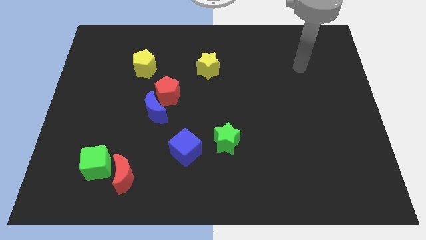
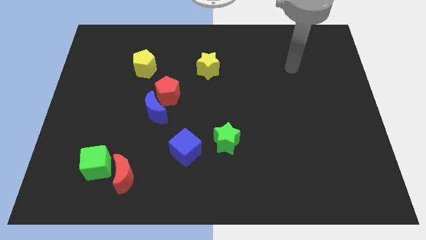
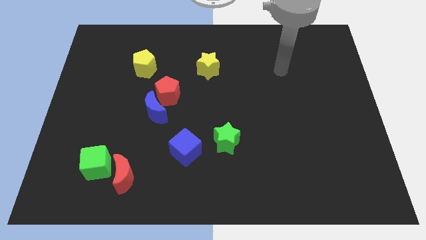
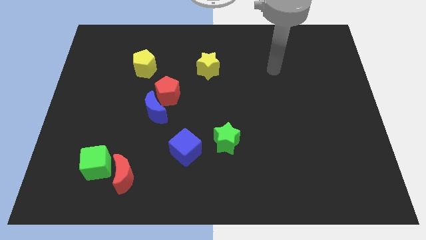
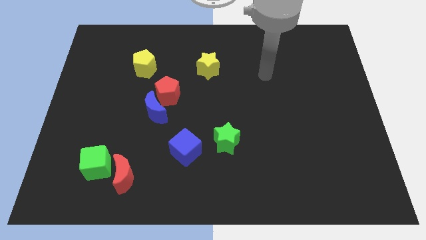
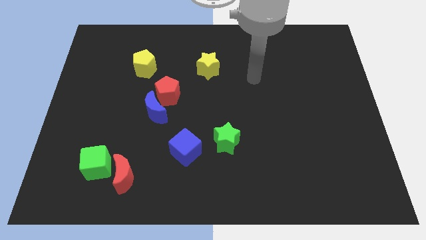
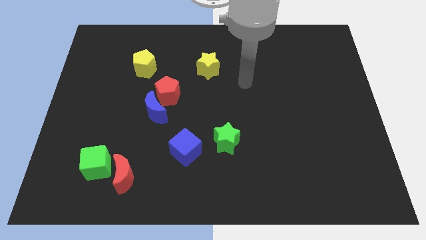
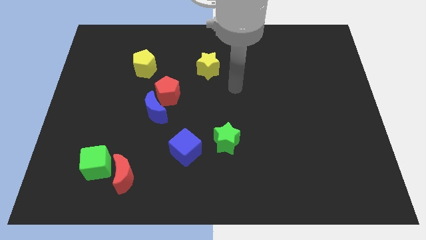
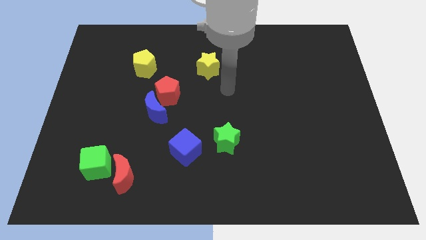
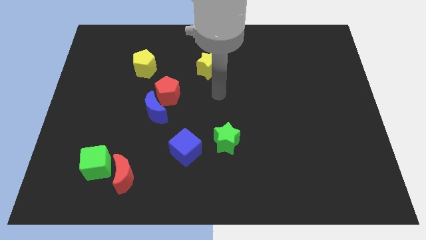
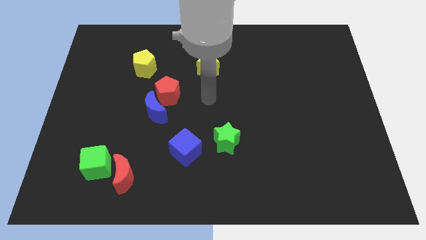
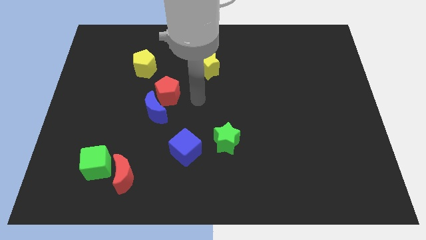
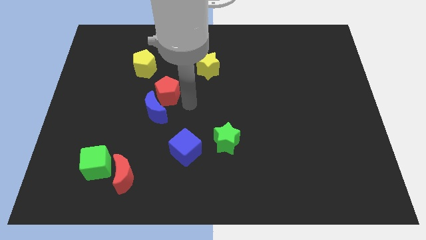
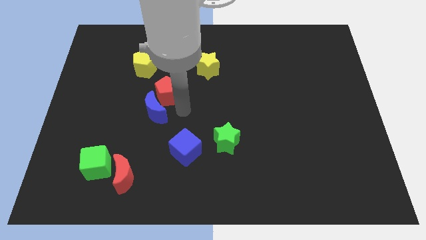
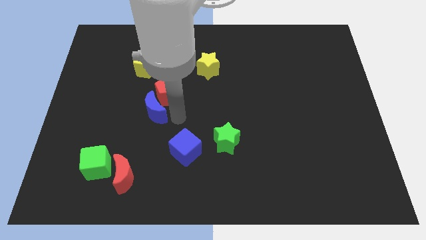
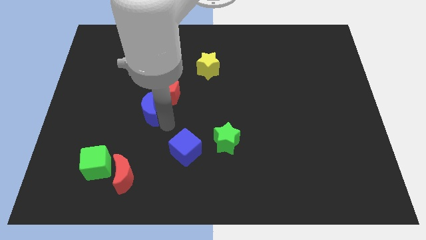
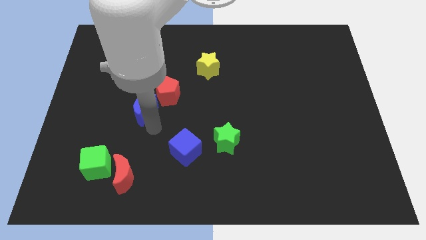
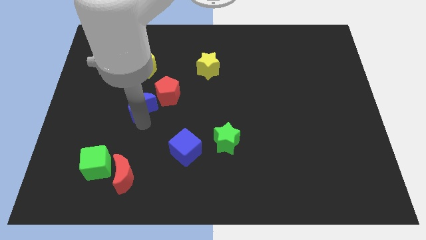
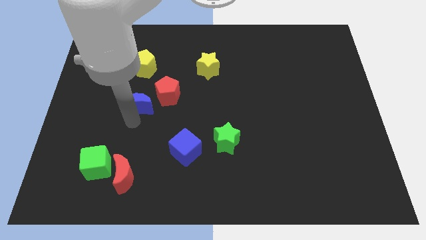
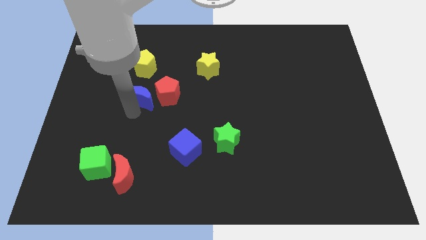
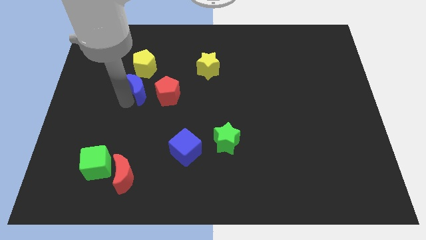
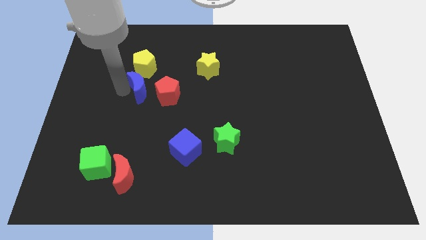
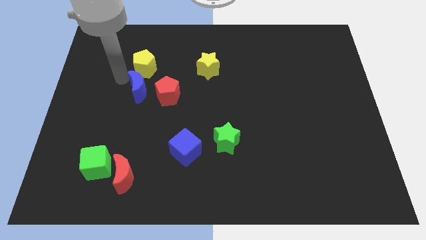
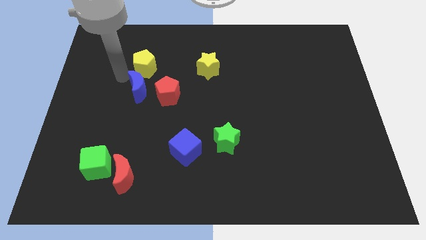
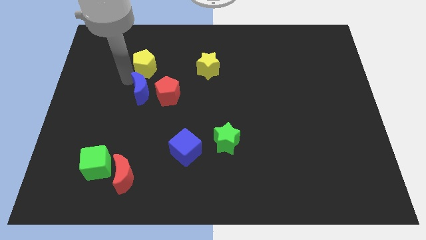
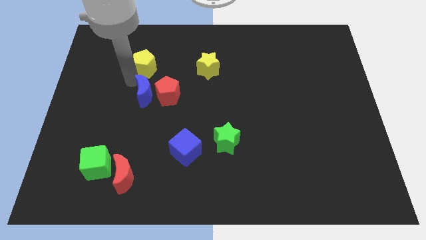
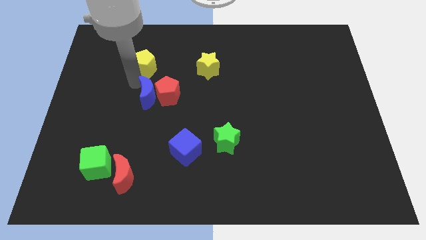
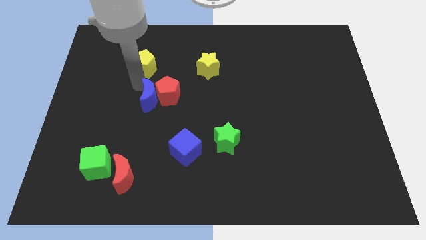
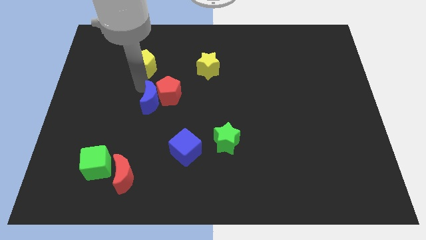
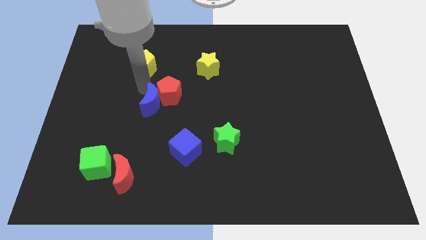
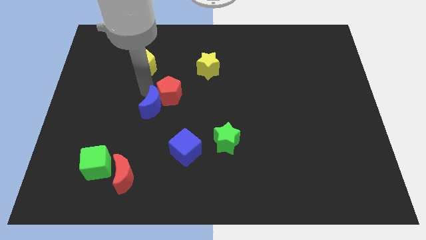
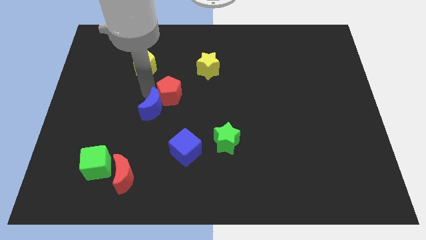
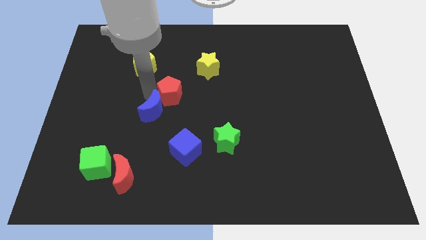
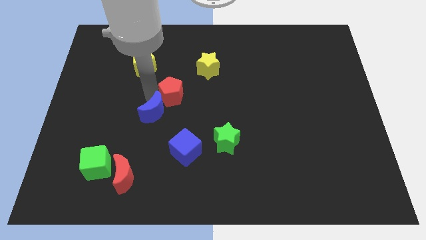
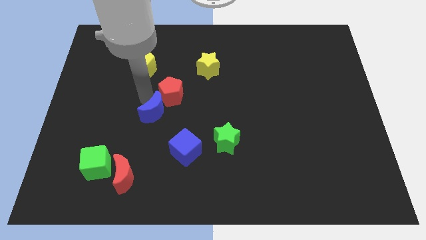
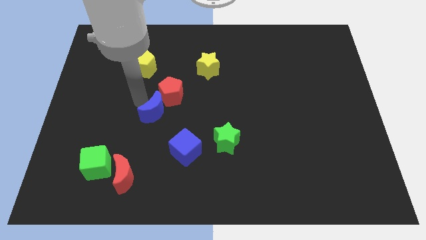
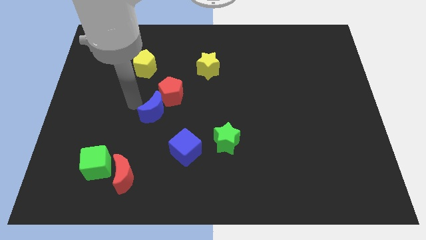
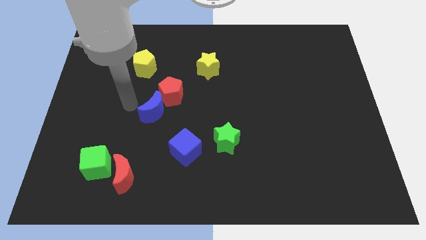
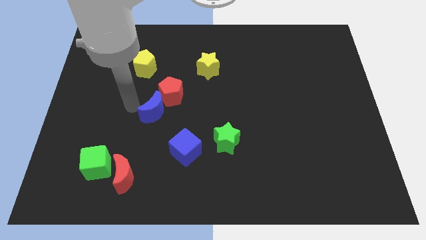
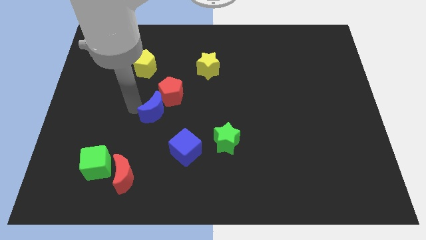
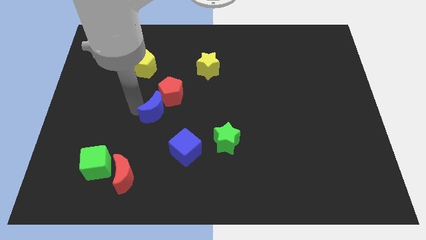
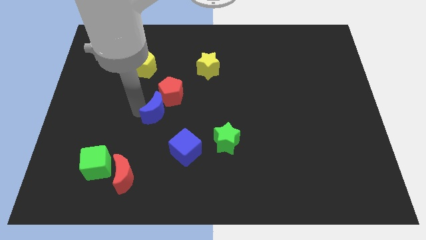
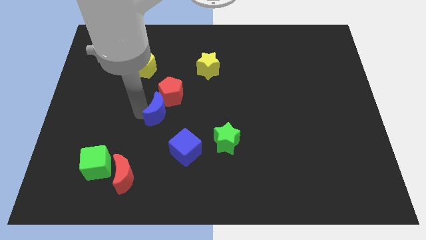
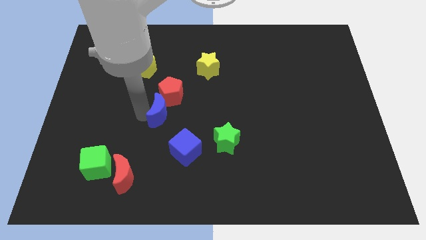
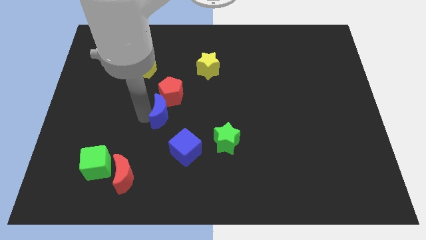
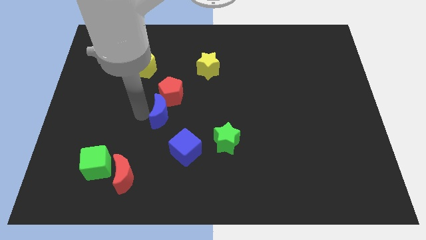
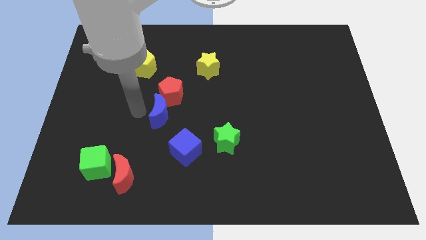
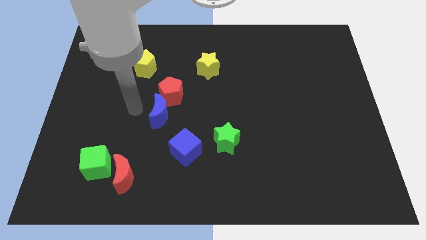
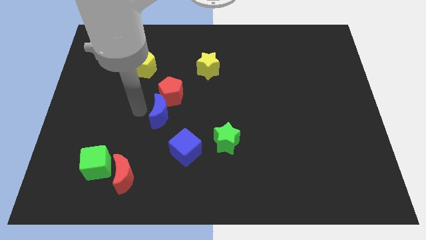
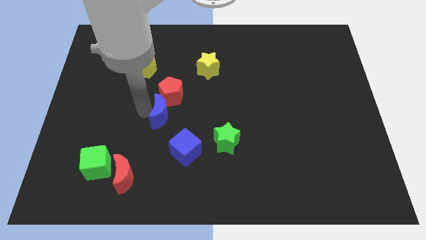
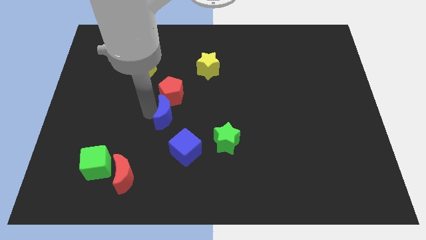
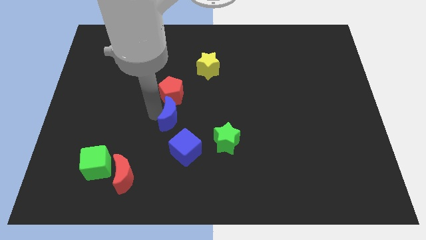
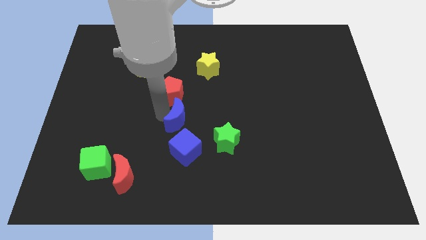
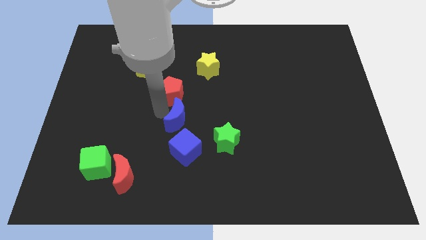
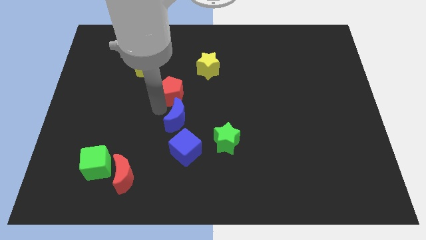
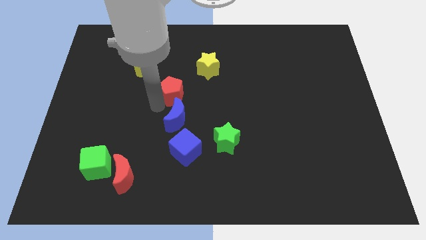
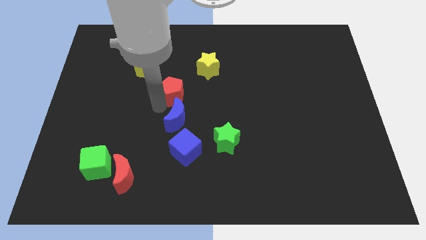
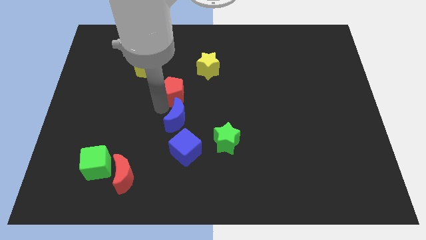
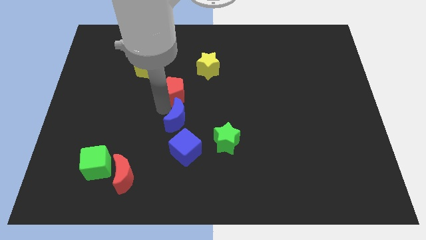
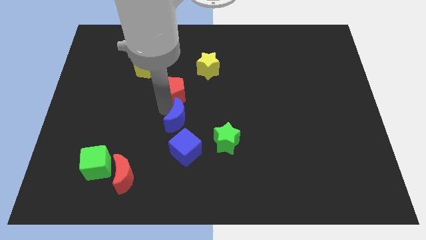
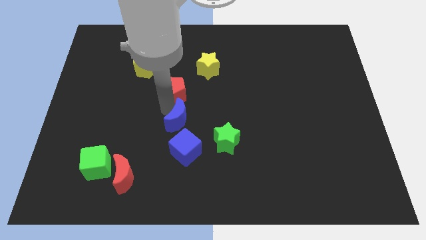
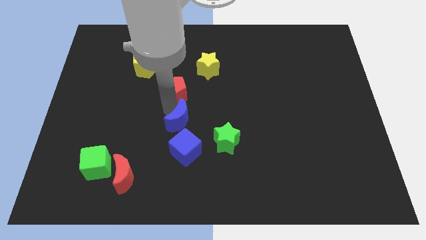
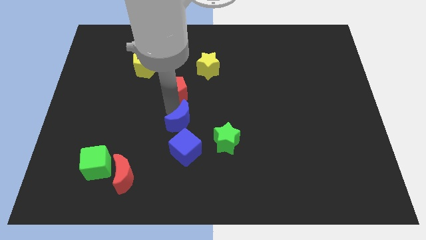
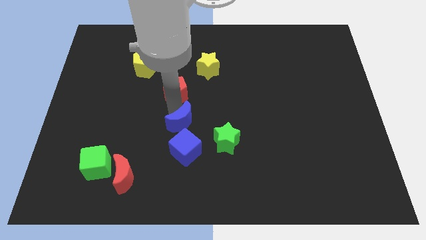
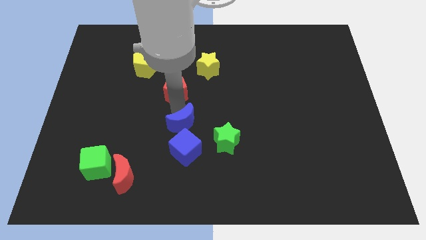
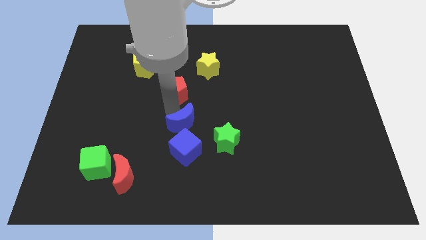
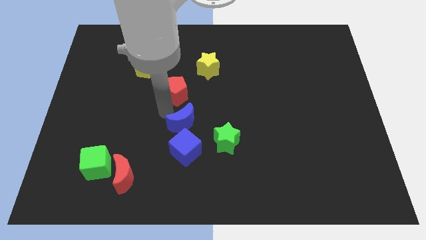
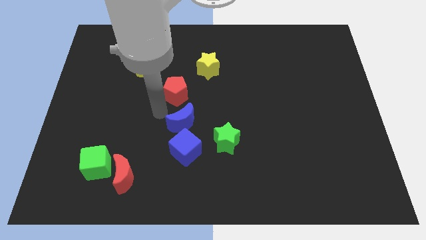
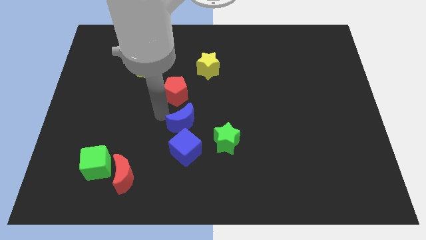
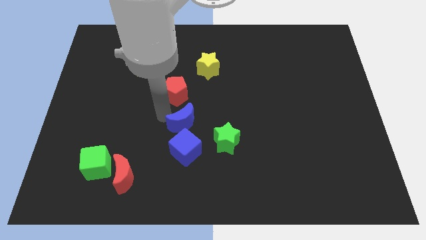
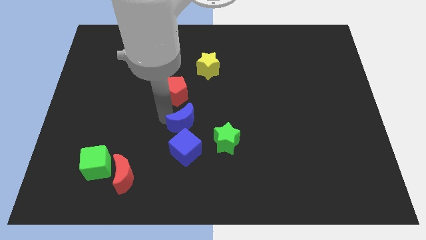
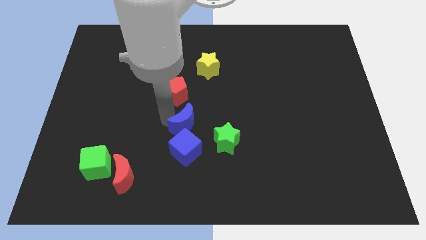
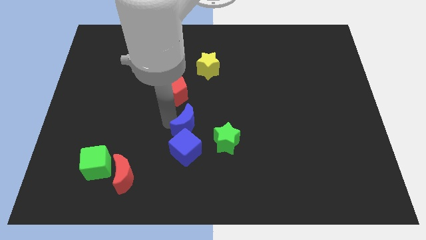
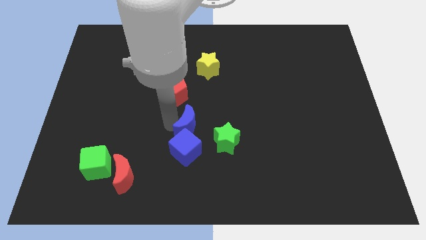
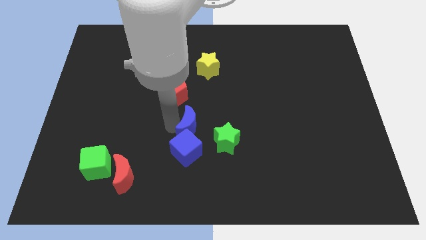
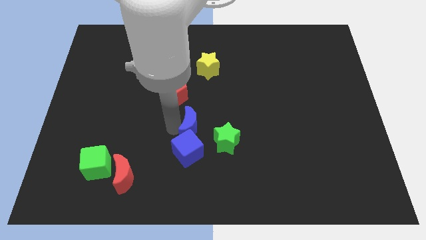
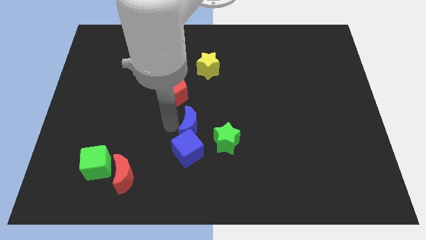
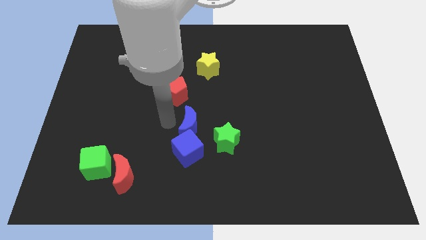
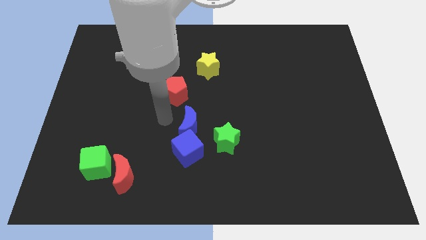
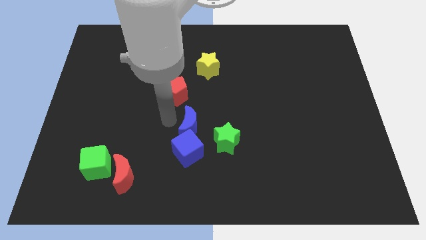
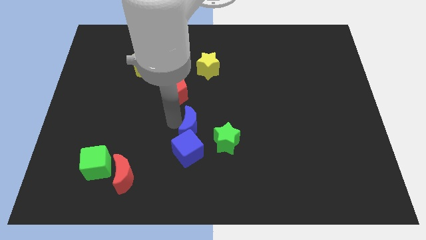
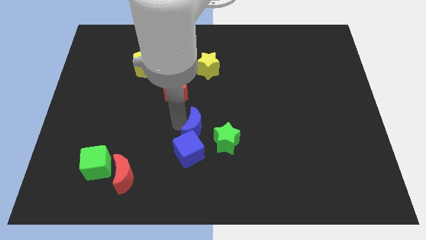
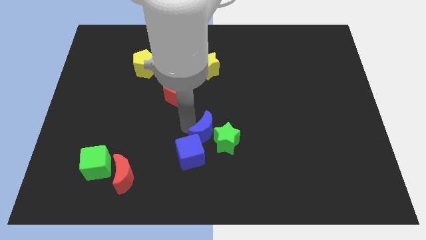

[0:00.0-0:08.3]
push the blue moon to the green star
